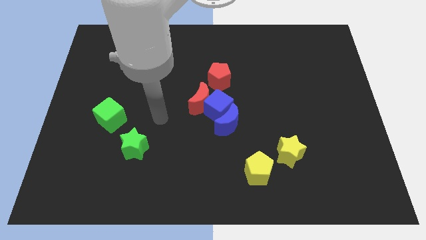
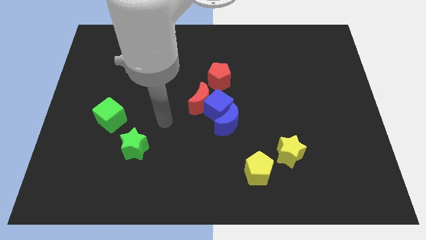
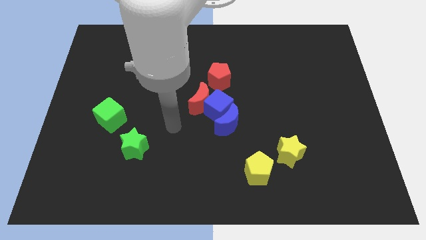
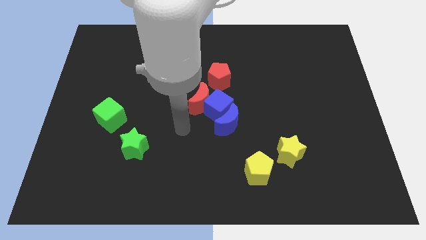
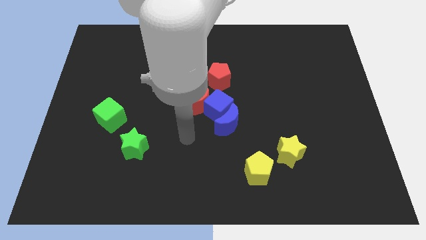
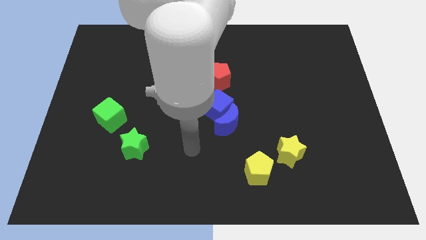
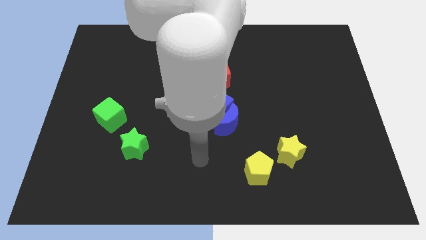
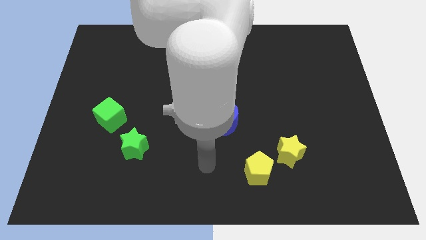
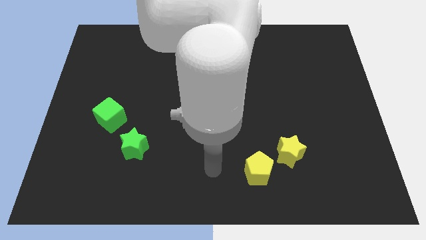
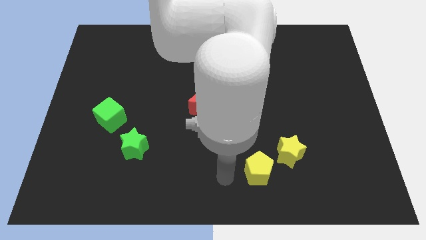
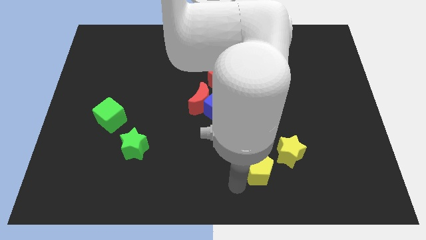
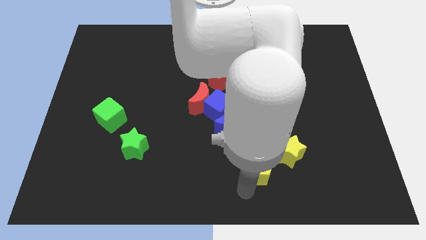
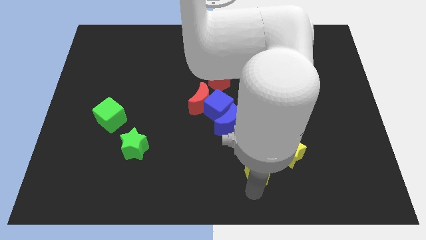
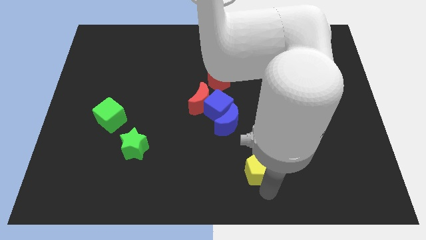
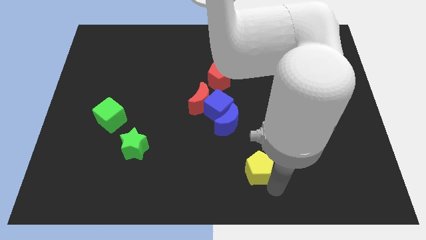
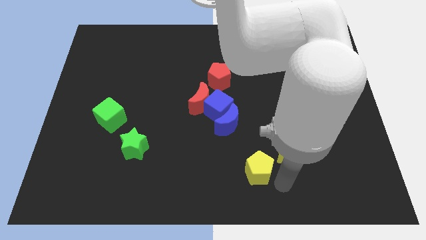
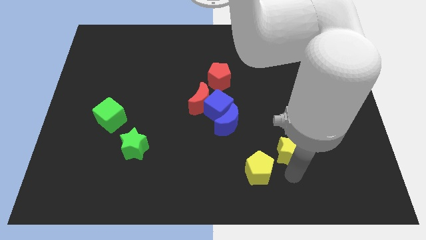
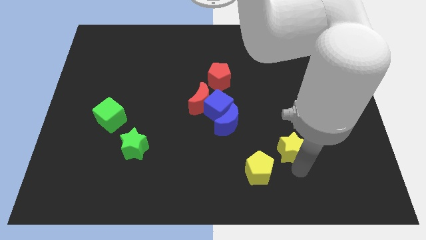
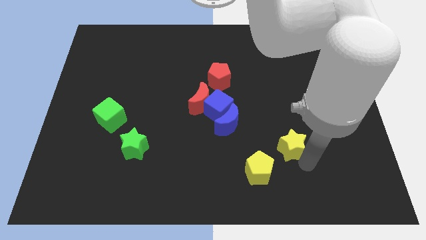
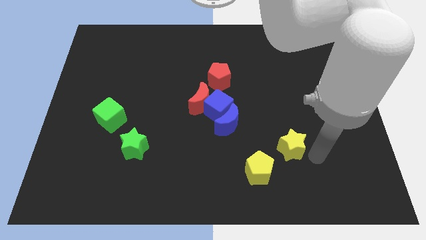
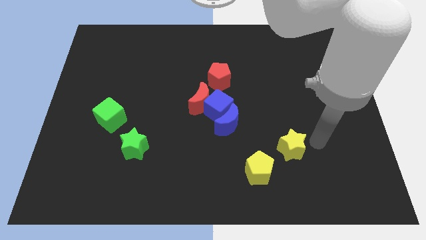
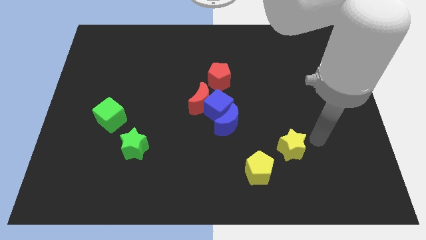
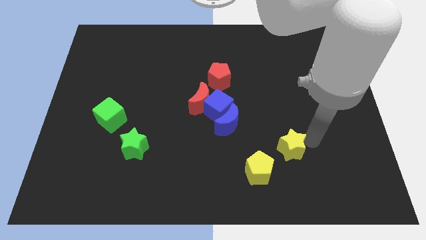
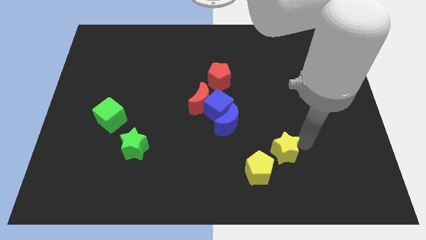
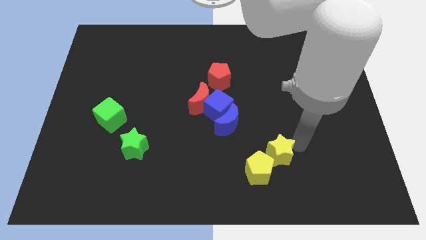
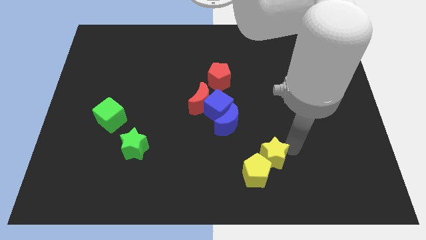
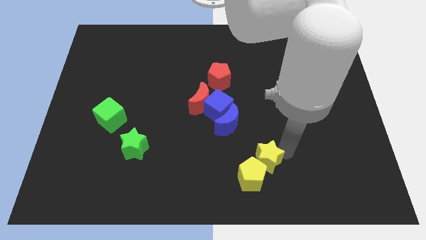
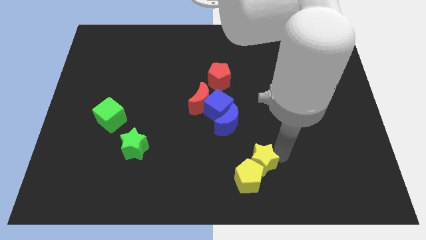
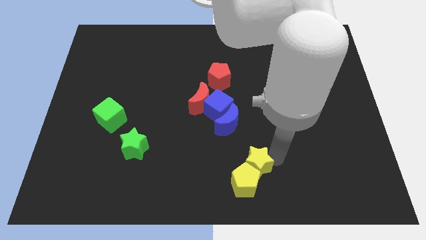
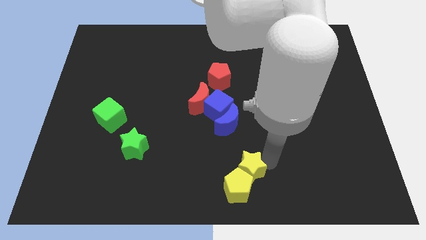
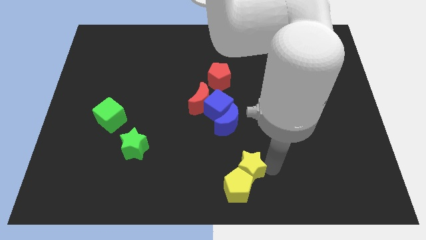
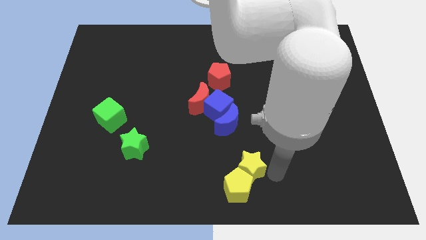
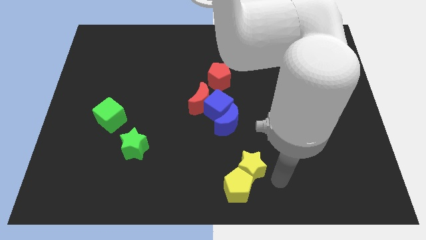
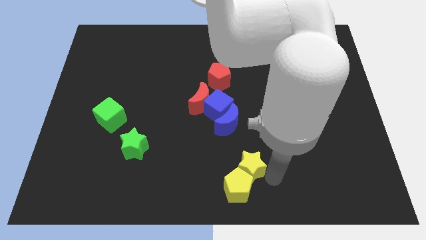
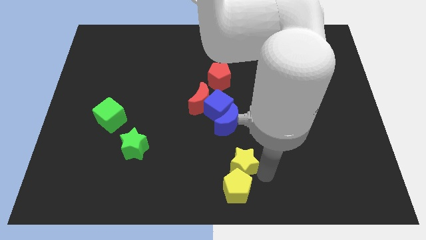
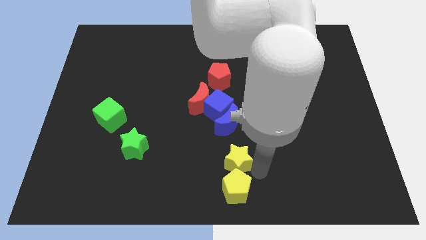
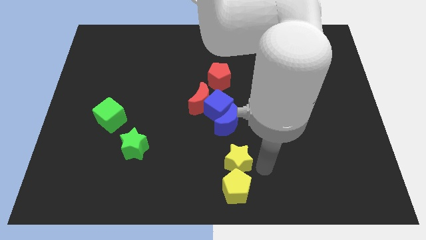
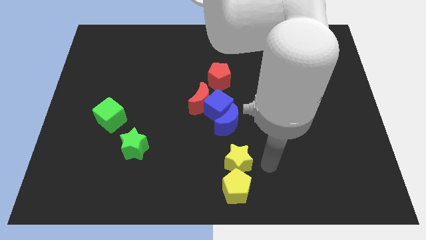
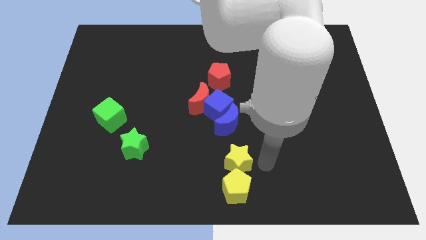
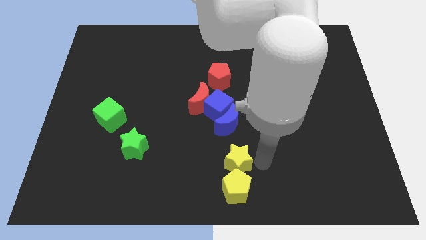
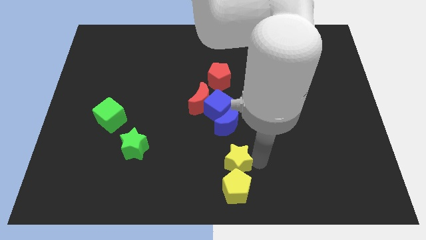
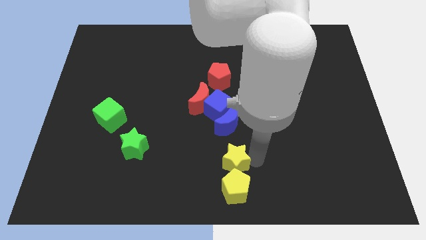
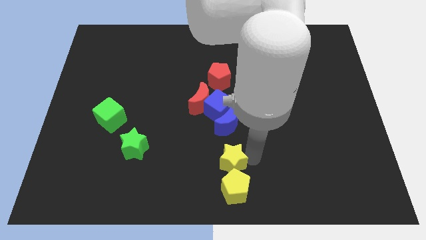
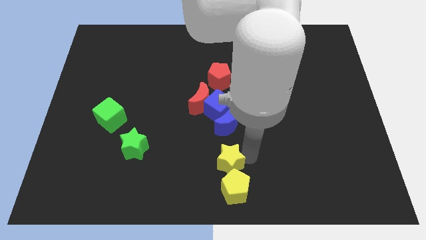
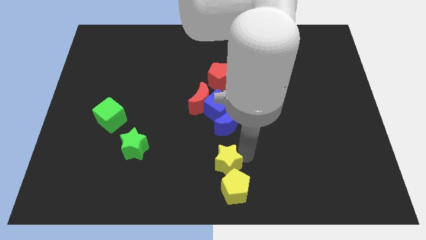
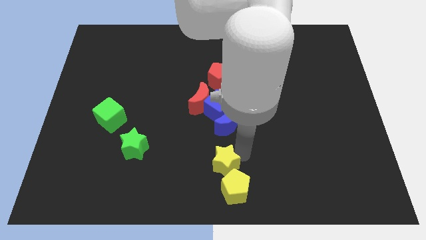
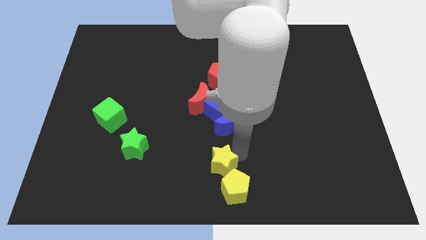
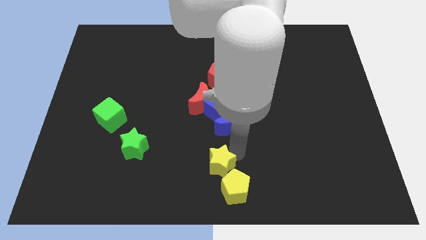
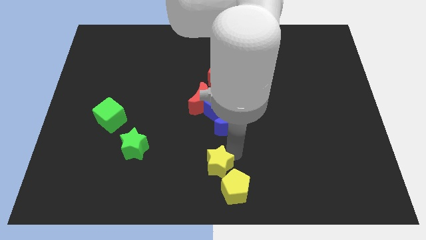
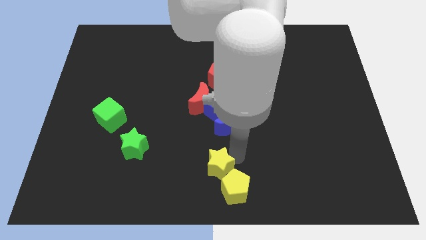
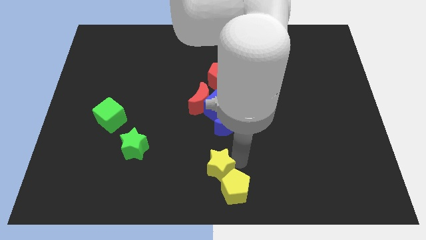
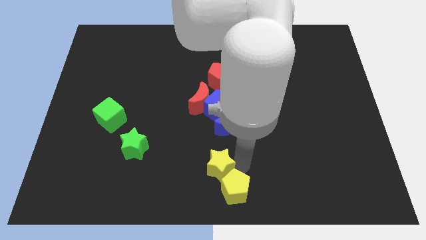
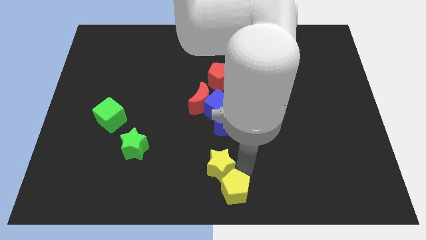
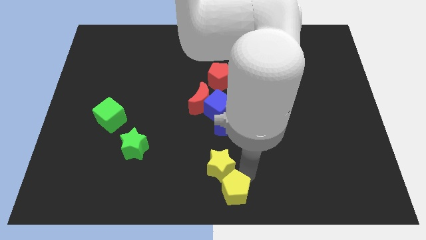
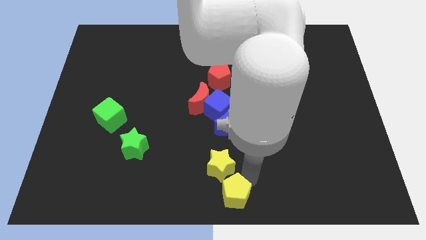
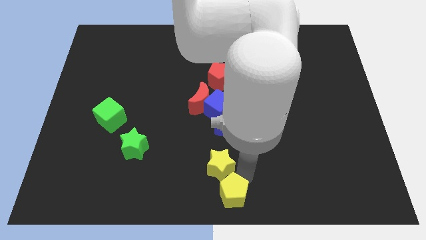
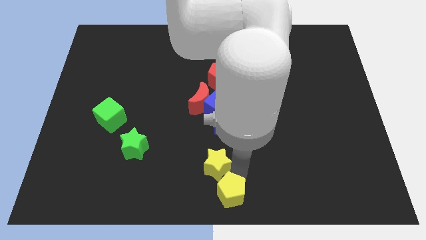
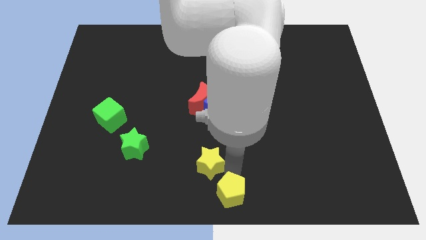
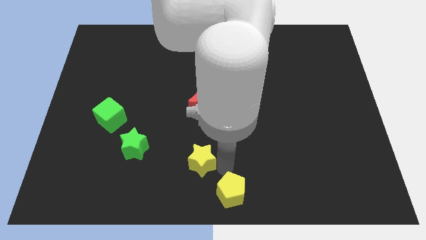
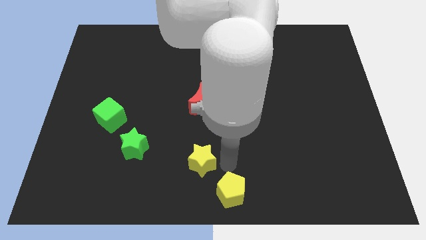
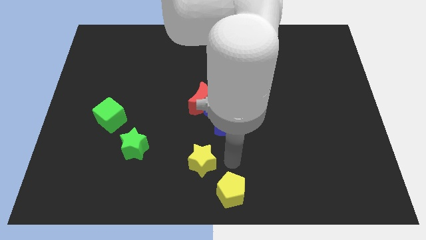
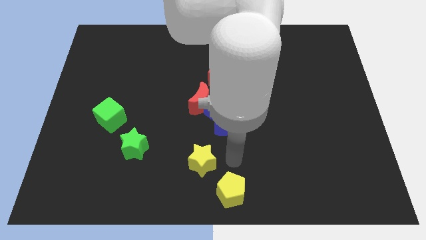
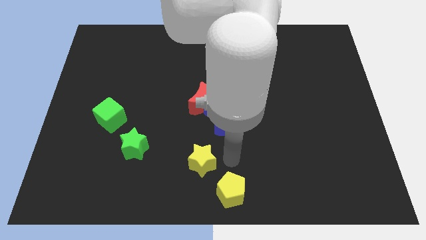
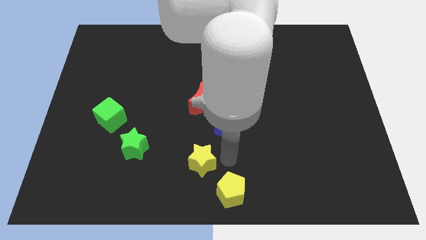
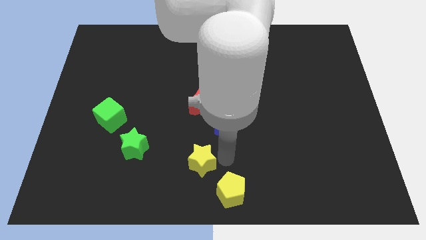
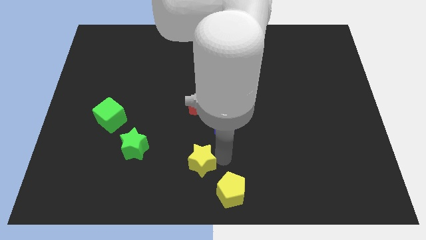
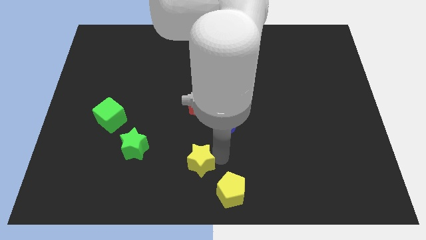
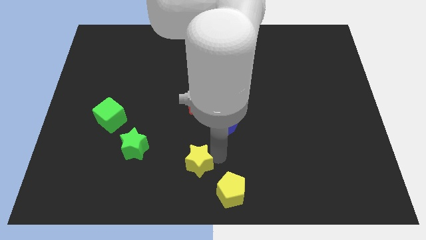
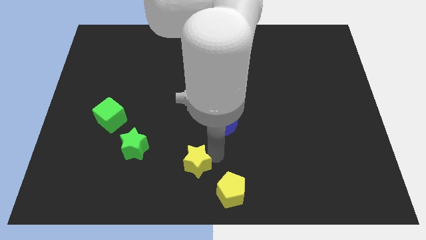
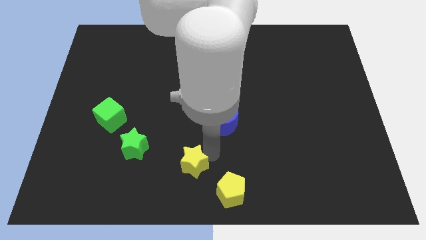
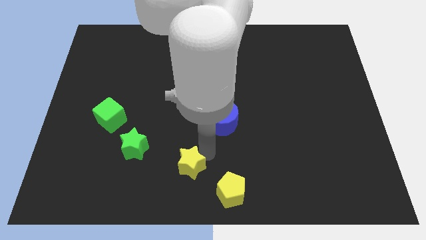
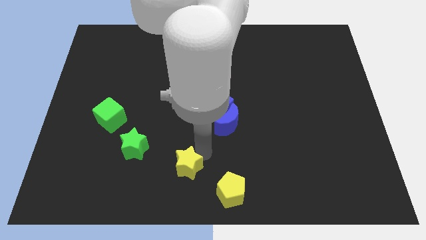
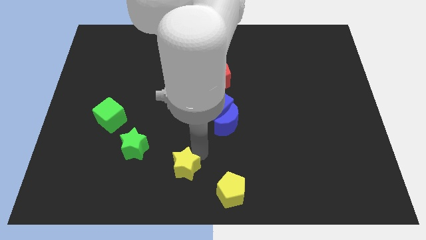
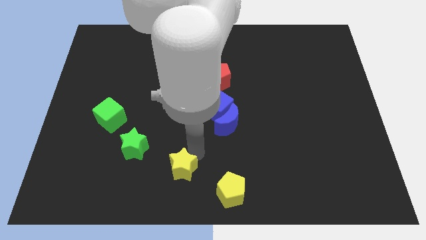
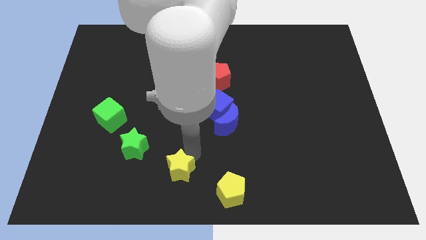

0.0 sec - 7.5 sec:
push the yellow star to the bottom right side of the green star
